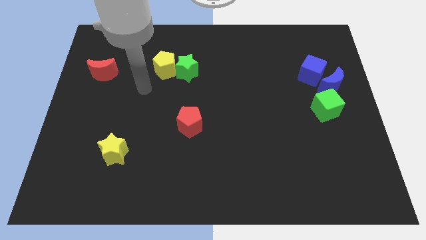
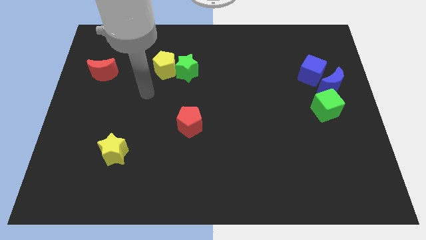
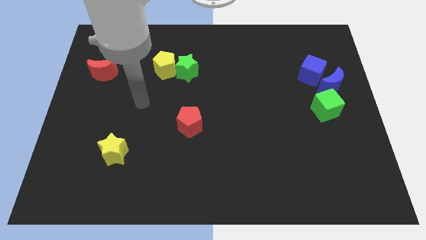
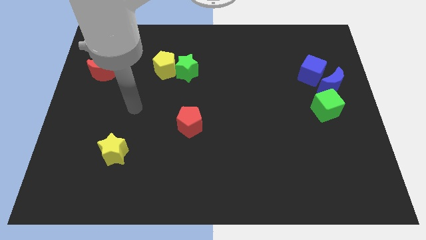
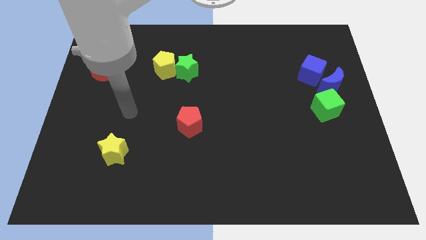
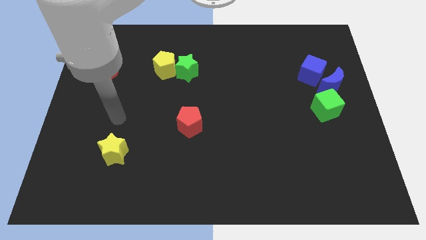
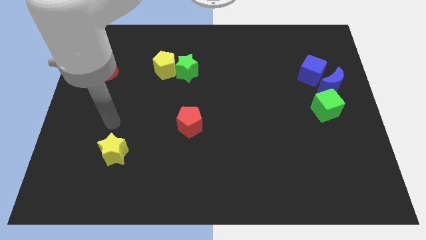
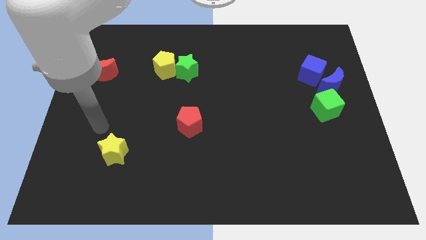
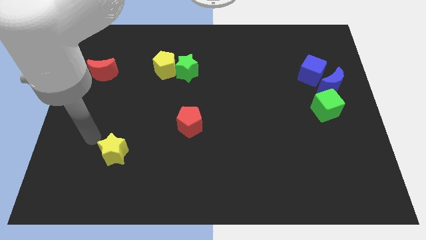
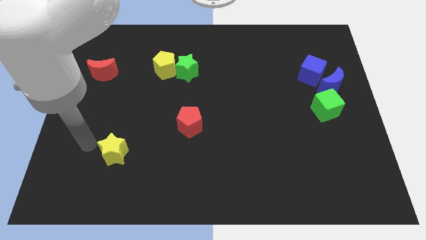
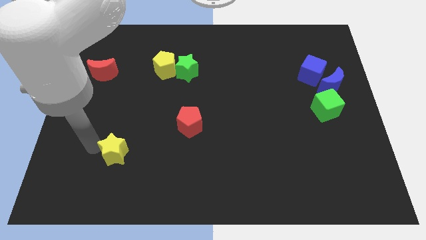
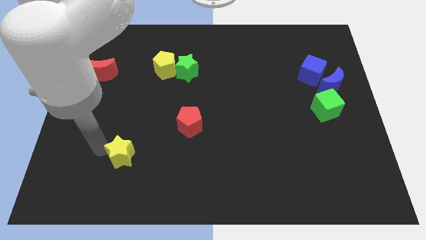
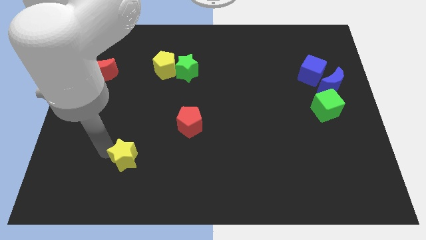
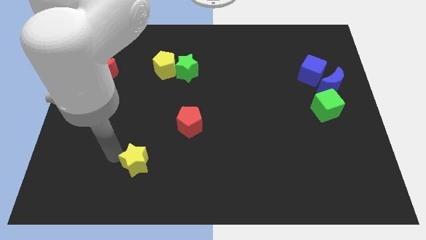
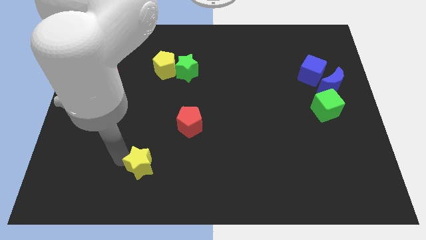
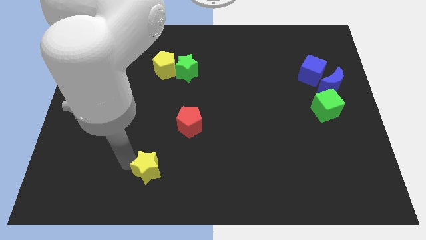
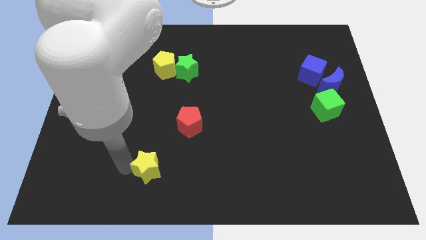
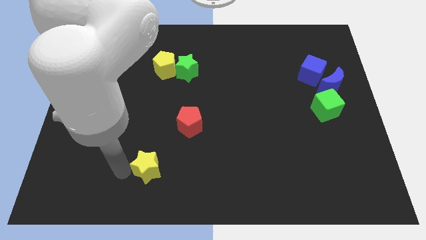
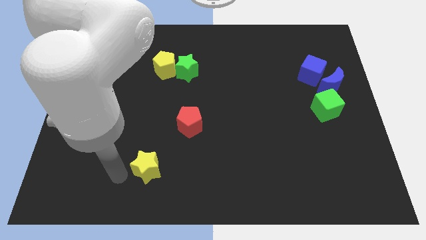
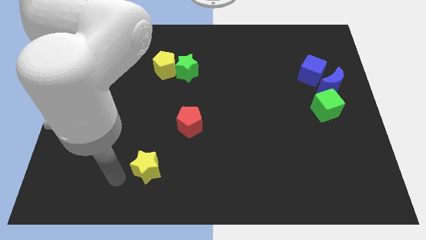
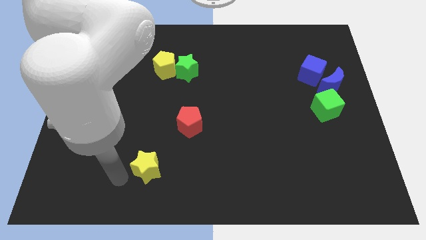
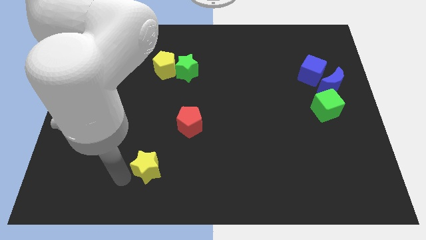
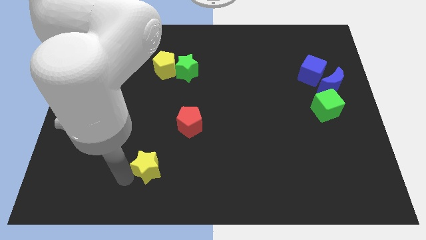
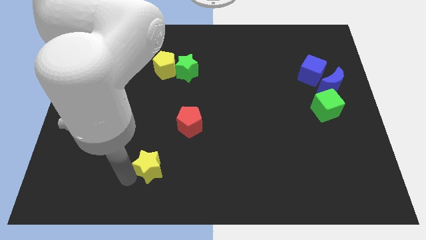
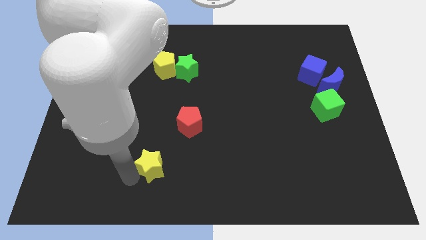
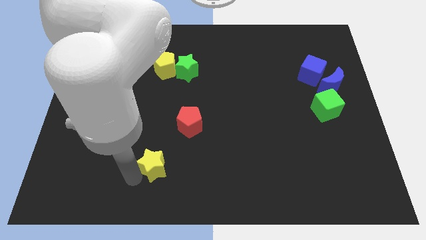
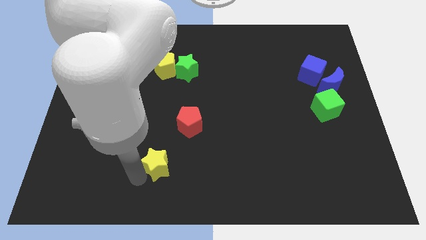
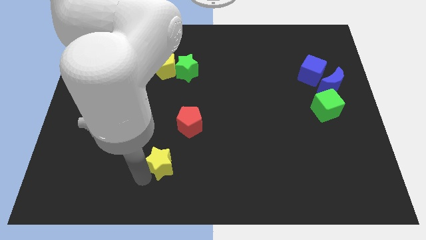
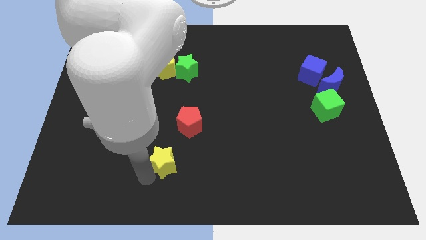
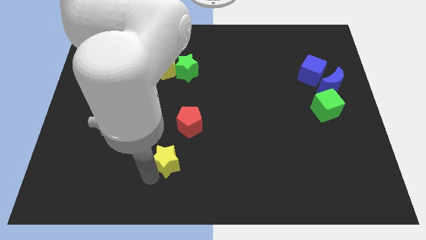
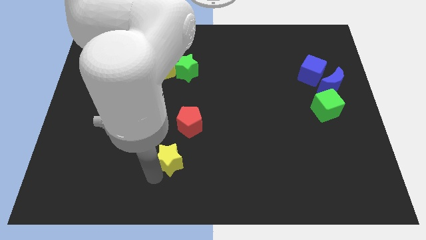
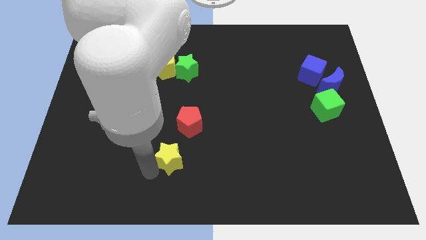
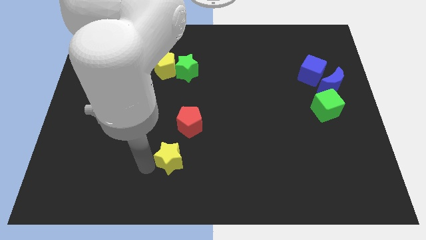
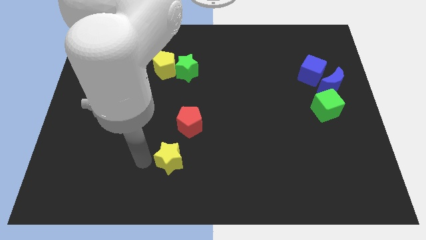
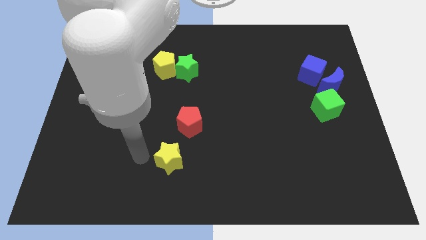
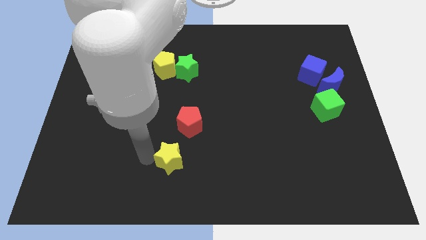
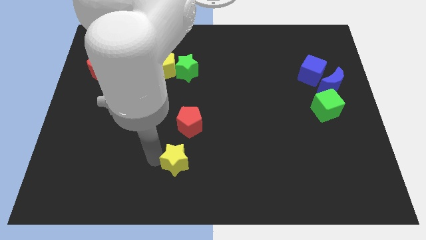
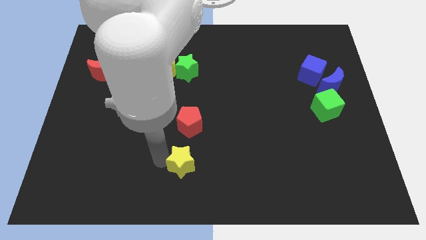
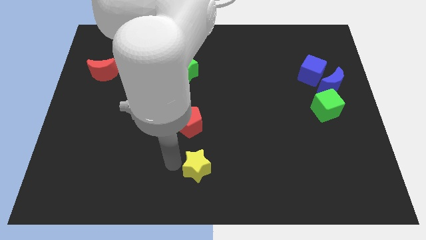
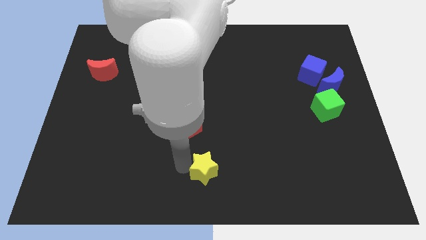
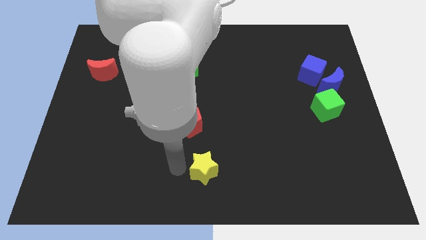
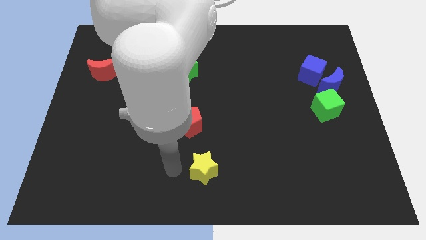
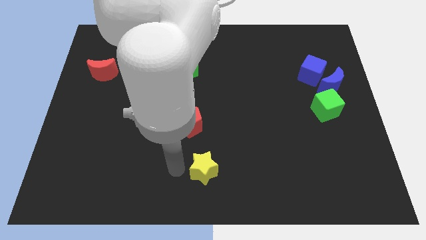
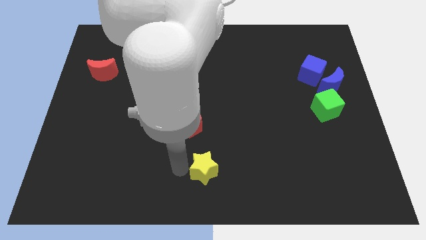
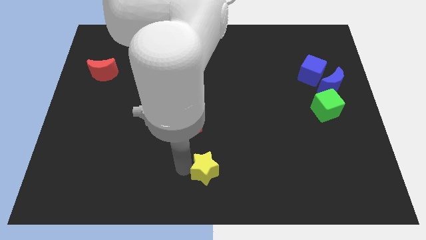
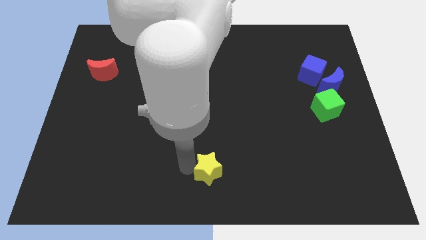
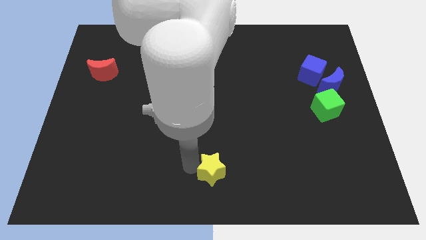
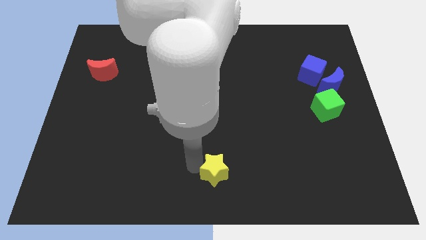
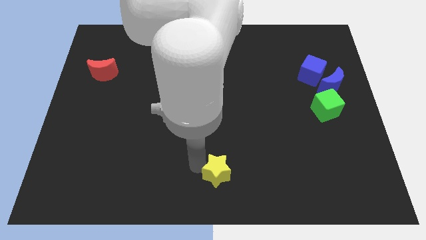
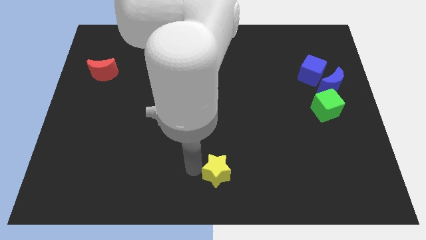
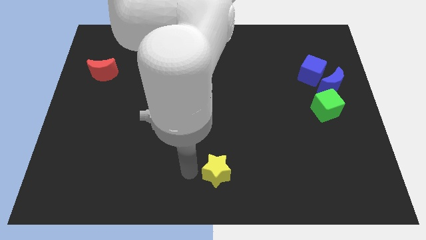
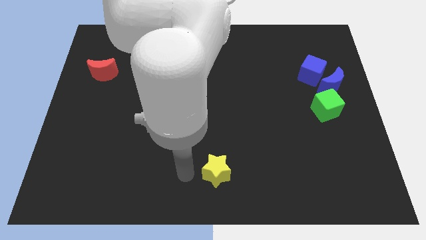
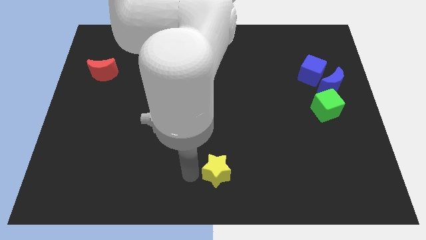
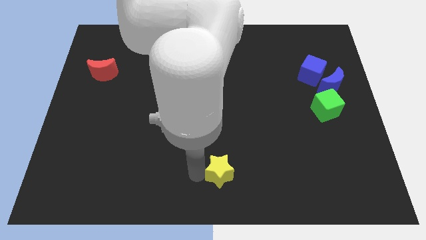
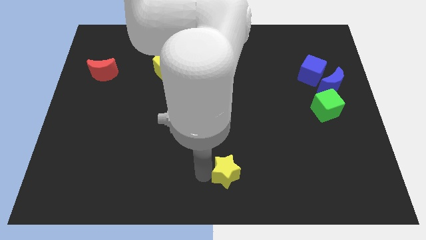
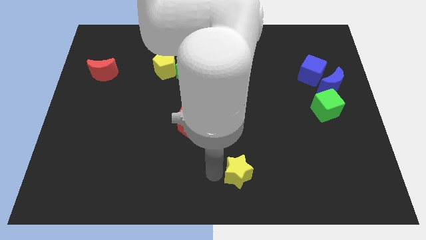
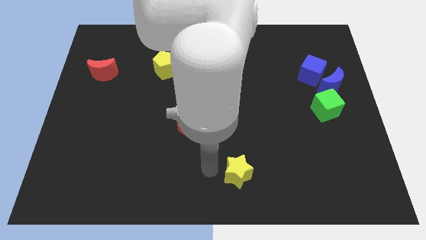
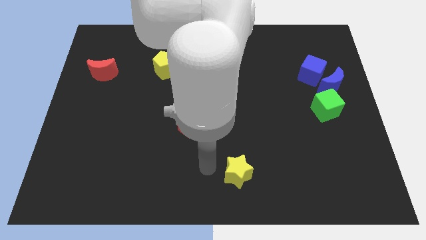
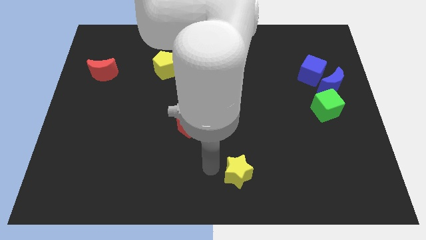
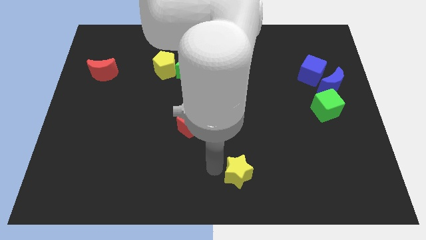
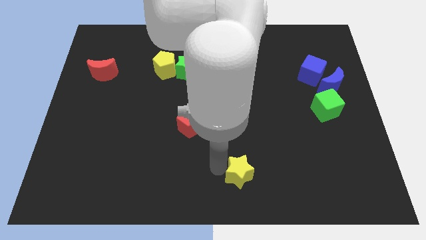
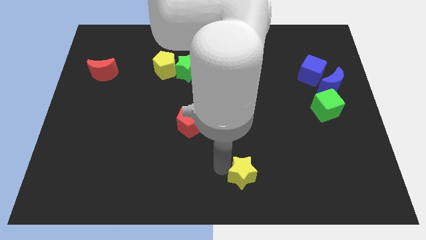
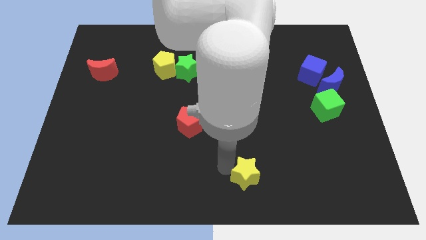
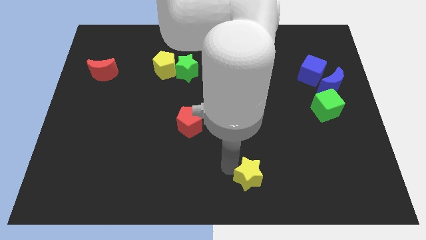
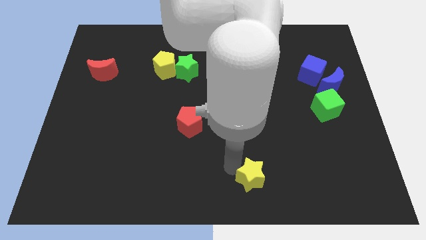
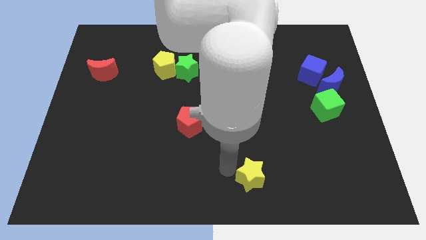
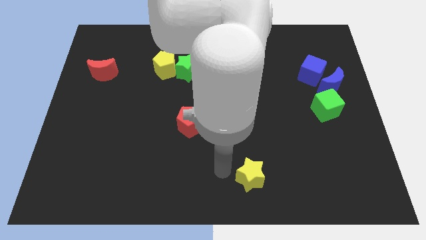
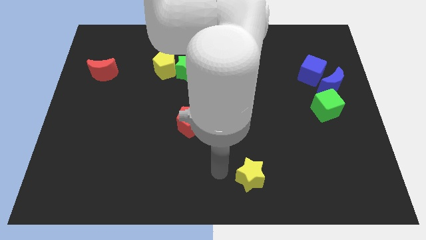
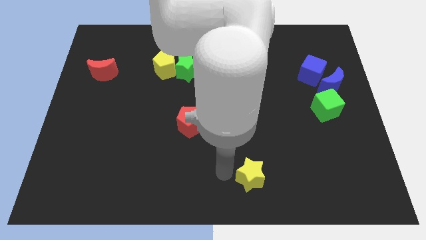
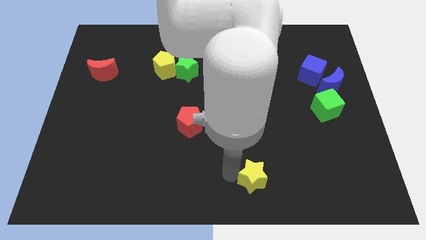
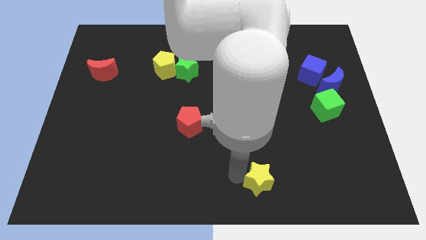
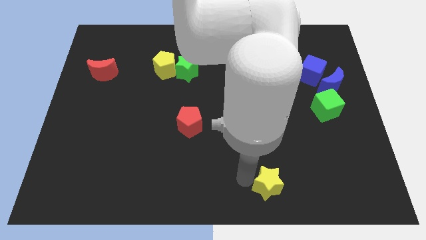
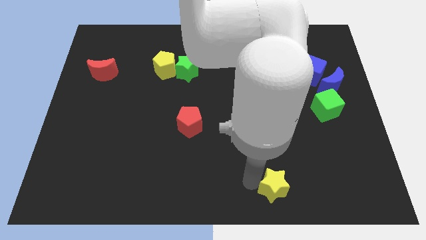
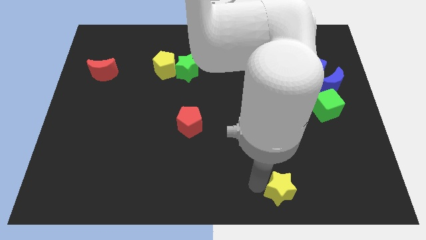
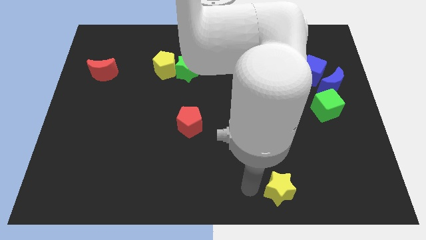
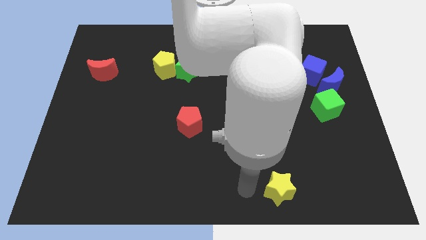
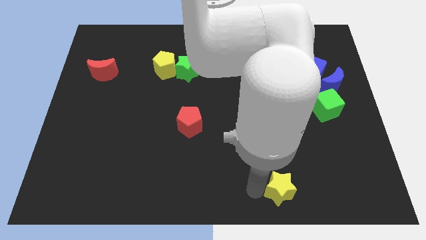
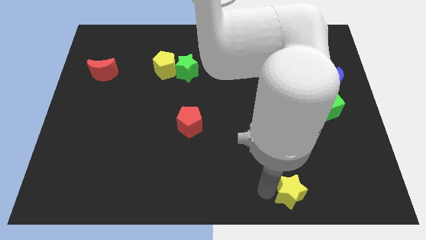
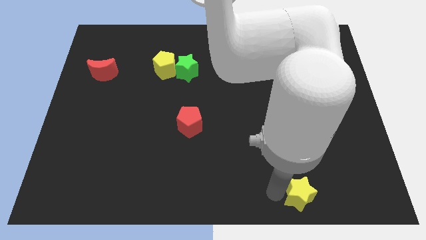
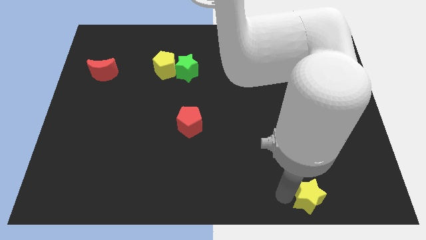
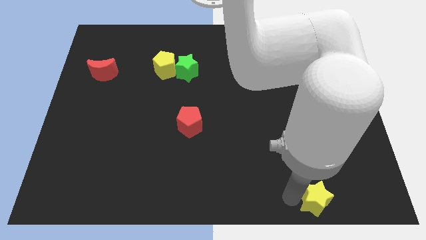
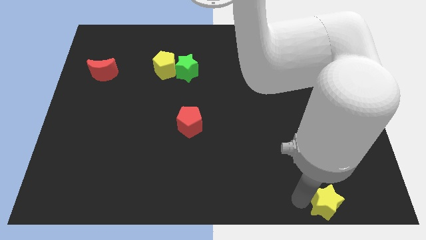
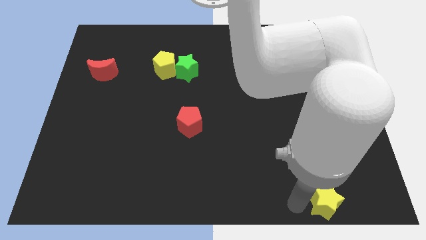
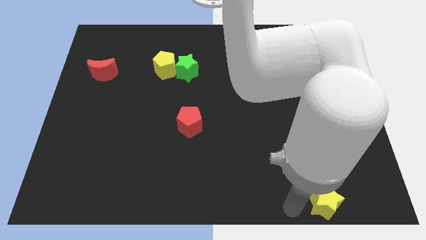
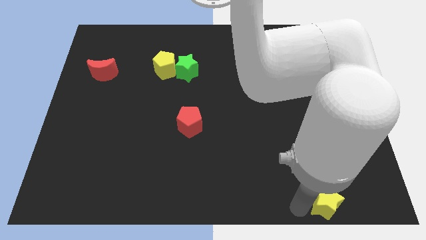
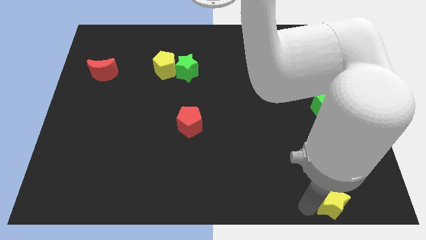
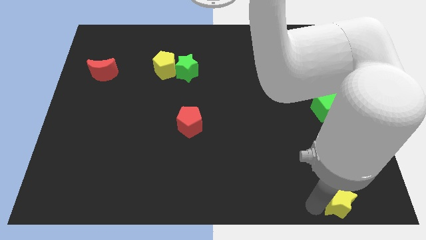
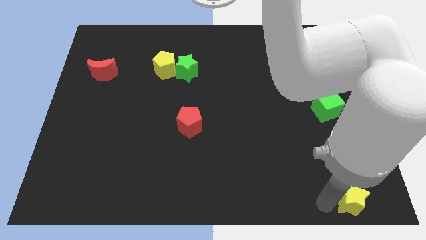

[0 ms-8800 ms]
push the yellow star to the bottom right of the board
